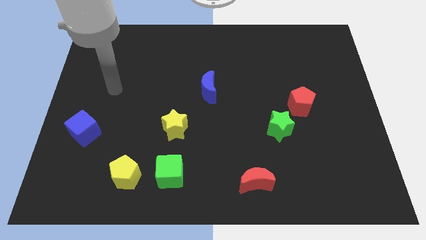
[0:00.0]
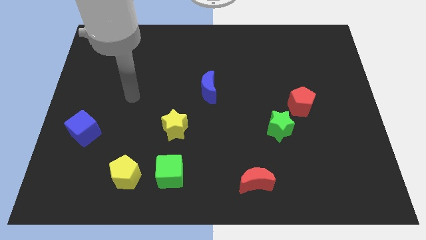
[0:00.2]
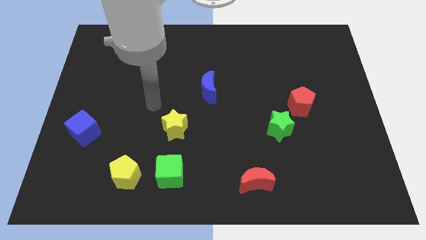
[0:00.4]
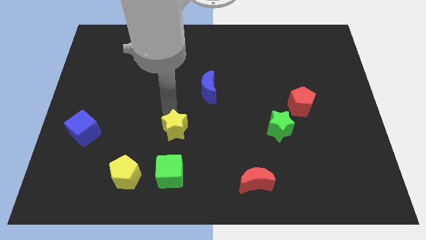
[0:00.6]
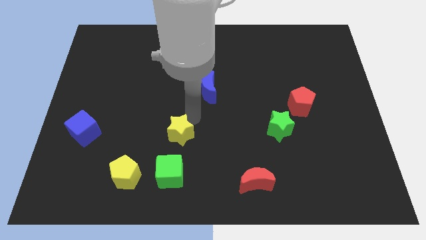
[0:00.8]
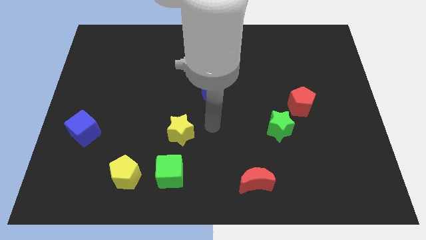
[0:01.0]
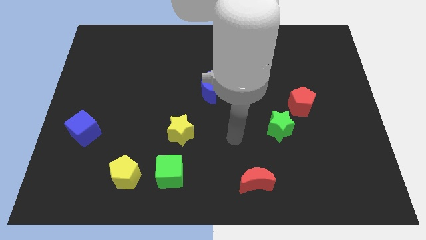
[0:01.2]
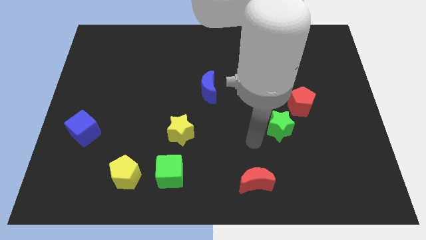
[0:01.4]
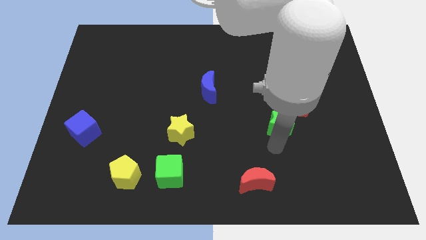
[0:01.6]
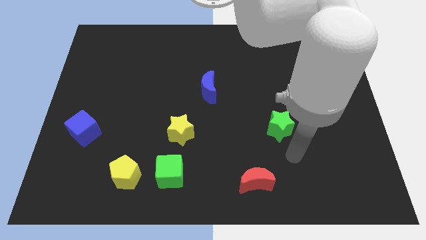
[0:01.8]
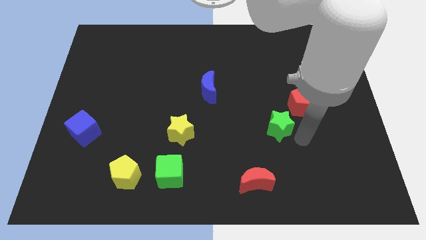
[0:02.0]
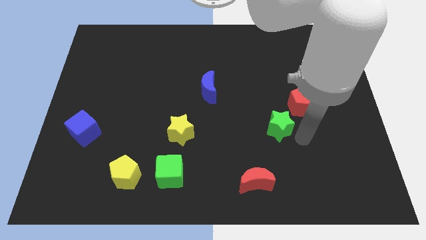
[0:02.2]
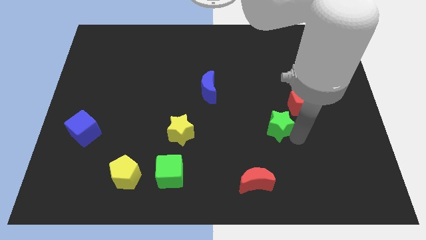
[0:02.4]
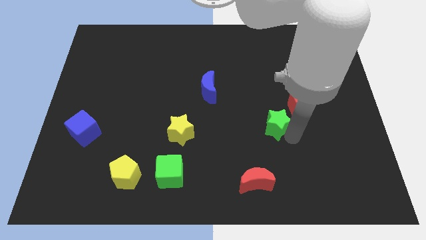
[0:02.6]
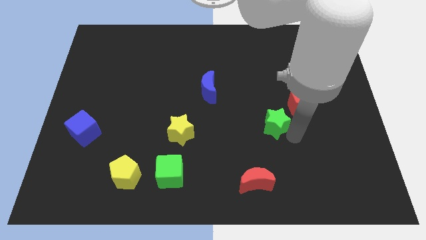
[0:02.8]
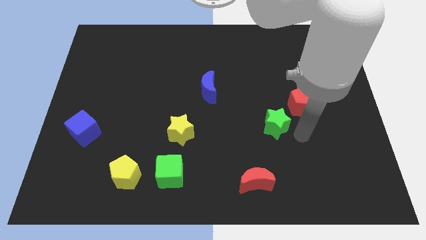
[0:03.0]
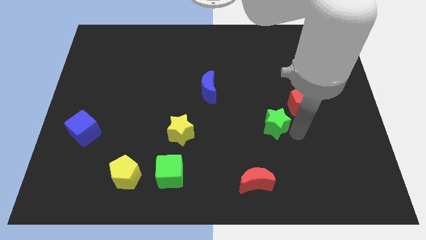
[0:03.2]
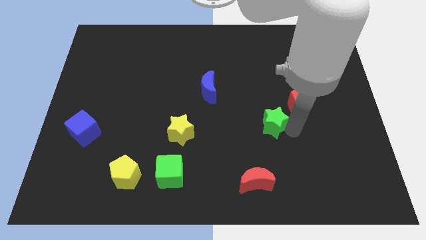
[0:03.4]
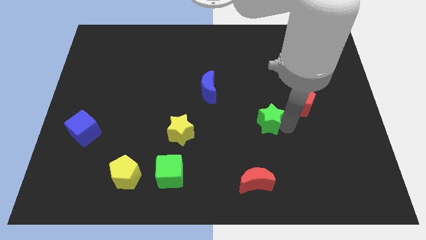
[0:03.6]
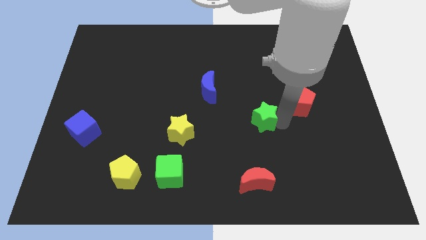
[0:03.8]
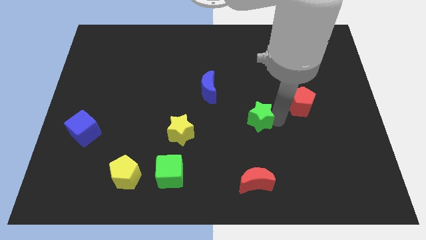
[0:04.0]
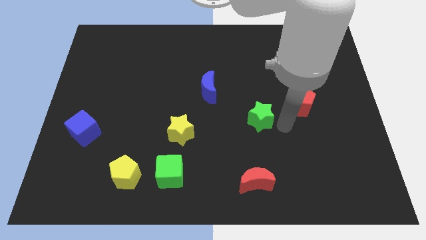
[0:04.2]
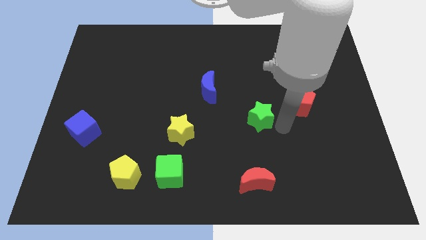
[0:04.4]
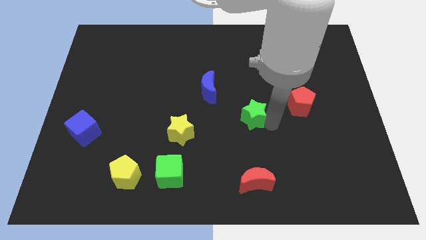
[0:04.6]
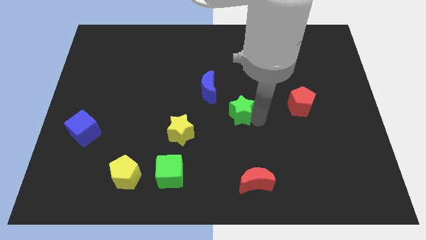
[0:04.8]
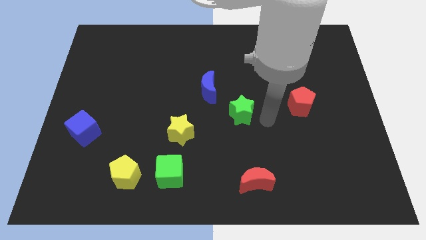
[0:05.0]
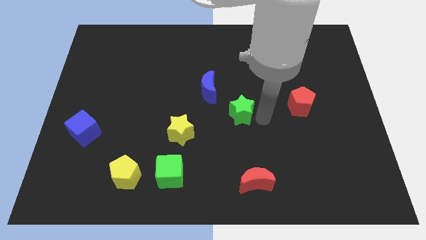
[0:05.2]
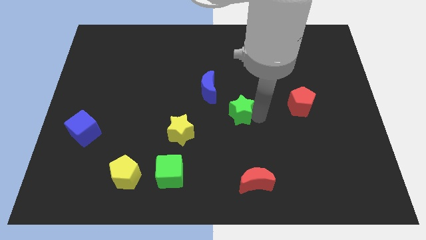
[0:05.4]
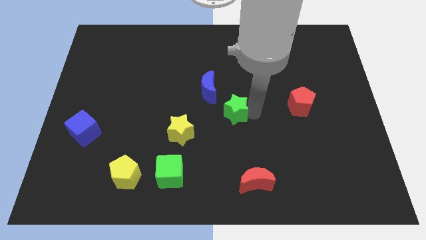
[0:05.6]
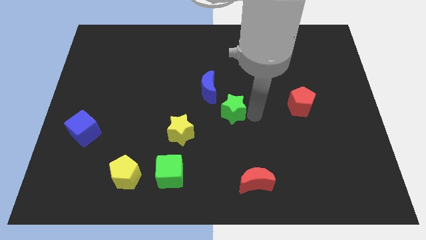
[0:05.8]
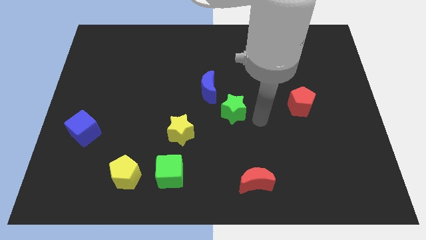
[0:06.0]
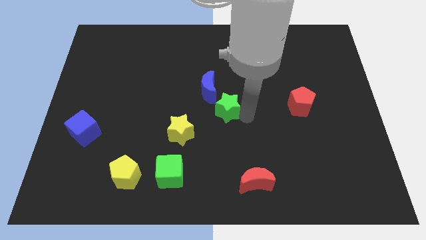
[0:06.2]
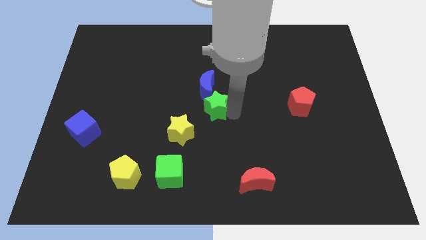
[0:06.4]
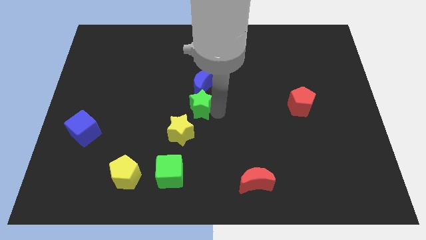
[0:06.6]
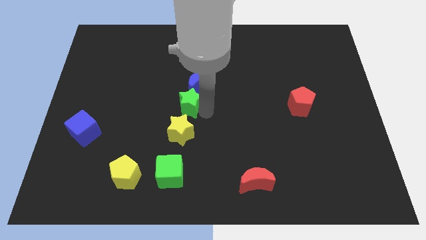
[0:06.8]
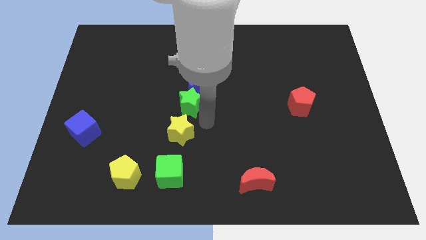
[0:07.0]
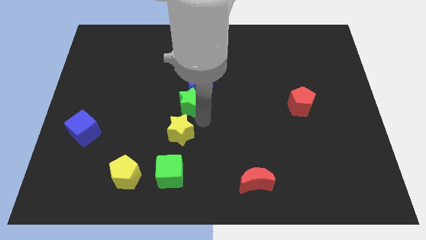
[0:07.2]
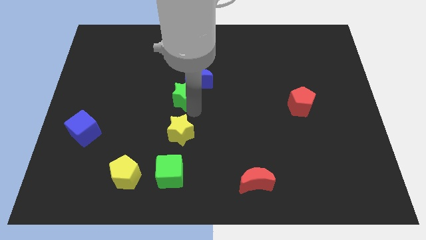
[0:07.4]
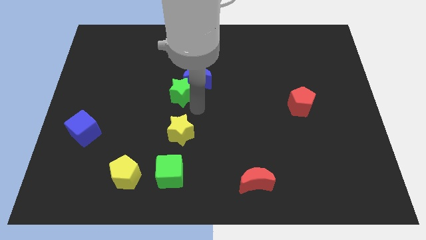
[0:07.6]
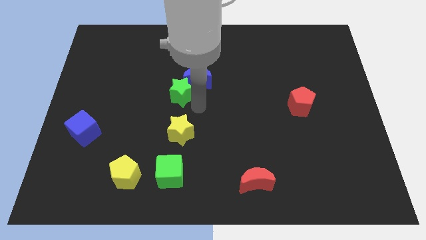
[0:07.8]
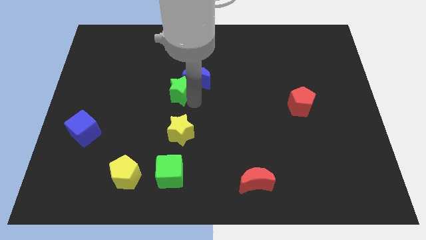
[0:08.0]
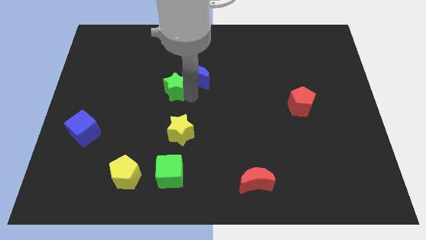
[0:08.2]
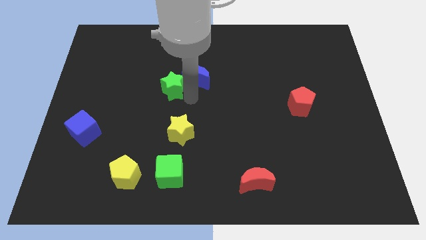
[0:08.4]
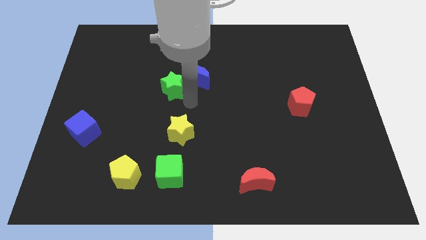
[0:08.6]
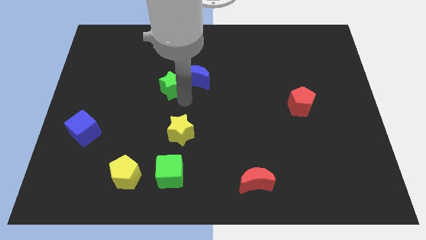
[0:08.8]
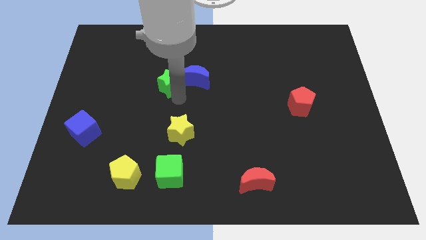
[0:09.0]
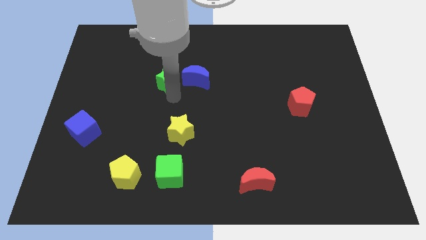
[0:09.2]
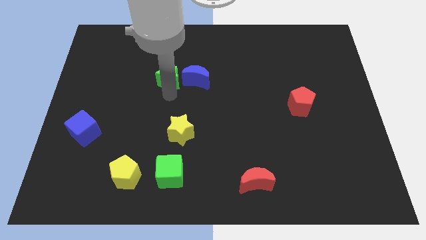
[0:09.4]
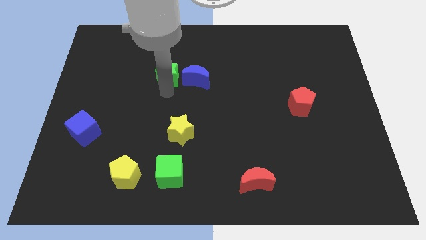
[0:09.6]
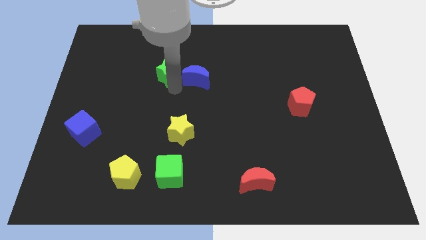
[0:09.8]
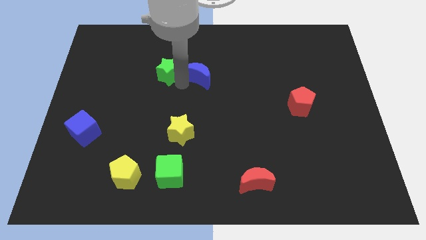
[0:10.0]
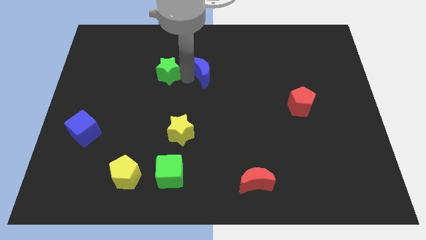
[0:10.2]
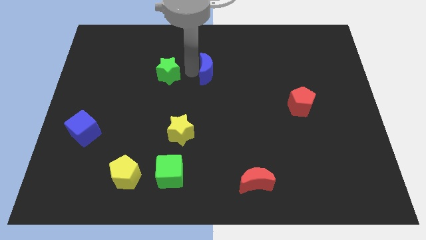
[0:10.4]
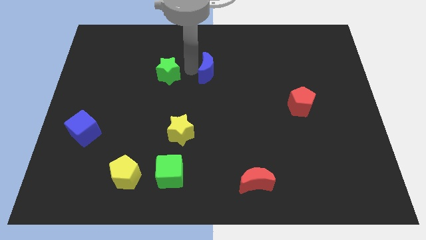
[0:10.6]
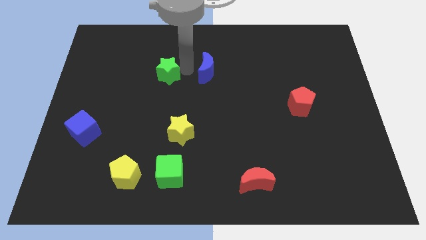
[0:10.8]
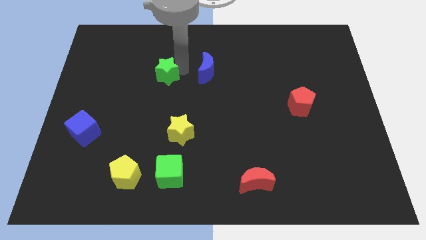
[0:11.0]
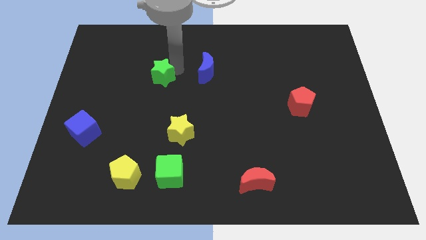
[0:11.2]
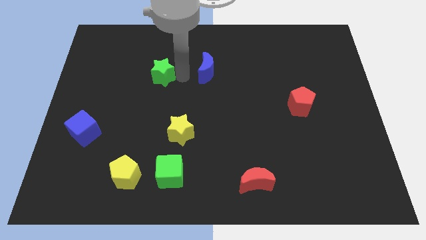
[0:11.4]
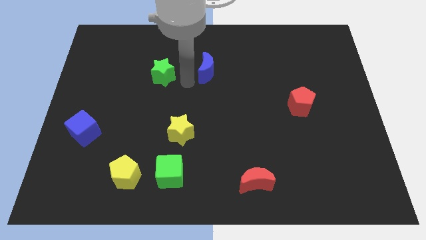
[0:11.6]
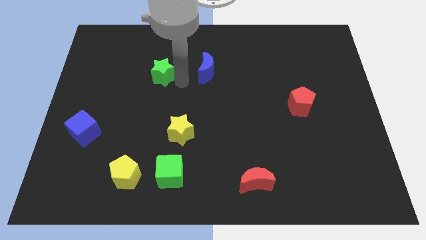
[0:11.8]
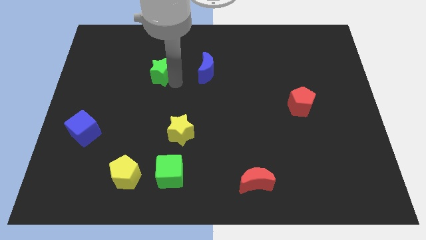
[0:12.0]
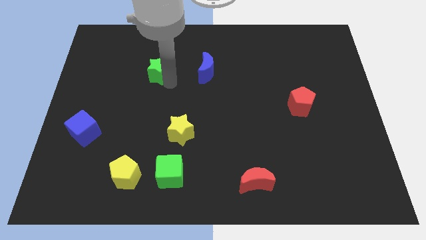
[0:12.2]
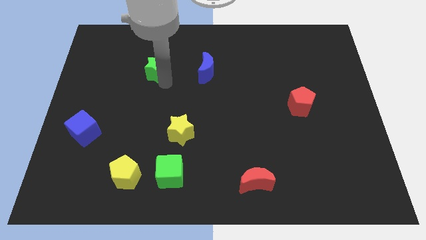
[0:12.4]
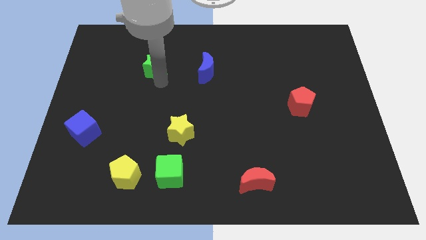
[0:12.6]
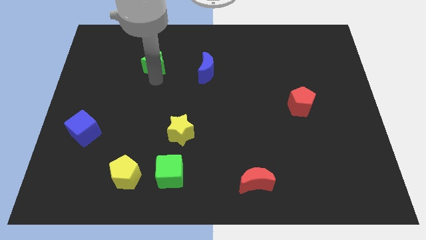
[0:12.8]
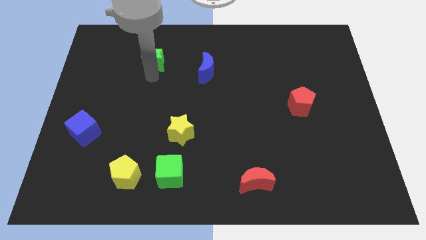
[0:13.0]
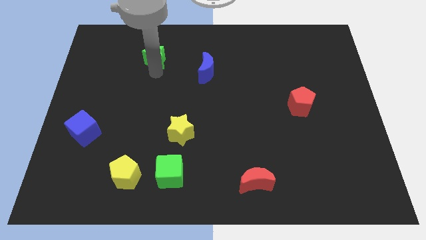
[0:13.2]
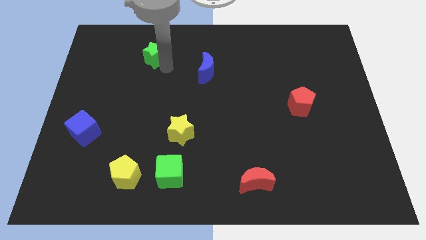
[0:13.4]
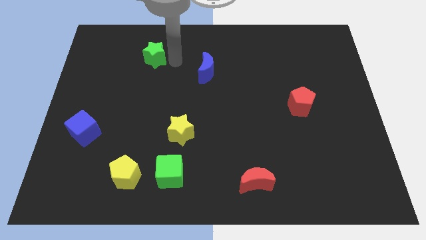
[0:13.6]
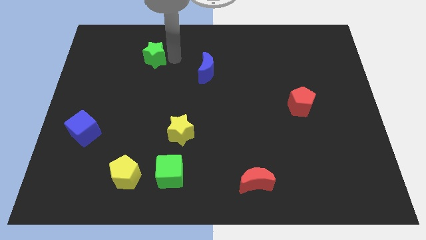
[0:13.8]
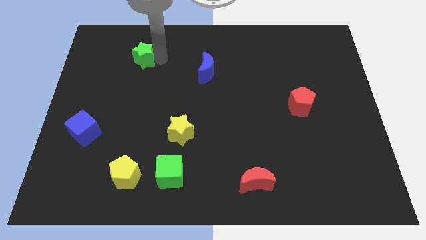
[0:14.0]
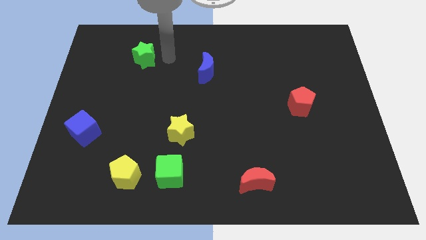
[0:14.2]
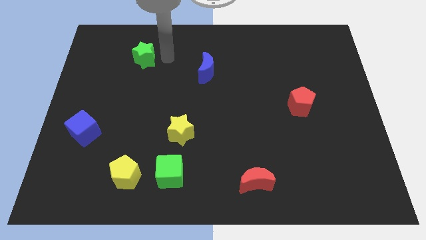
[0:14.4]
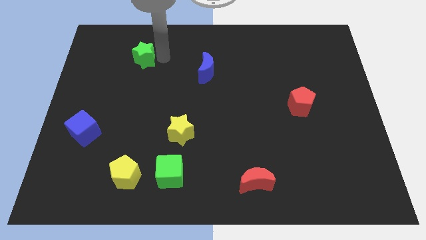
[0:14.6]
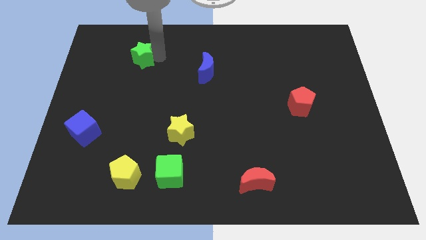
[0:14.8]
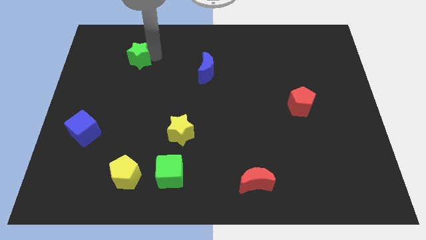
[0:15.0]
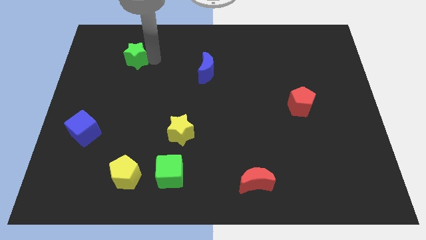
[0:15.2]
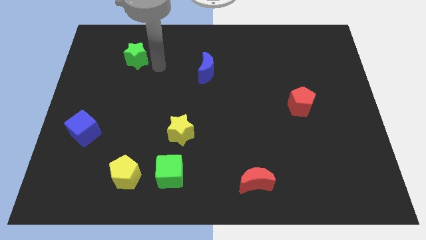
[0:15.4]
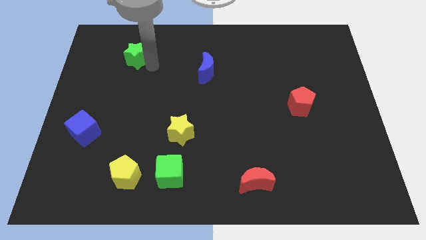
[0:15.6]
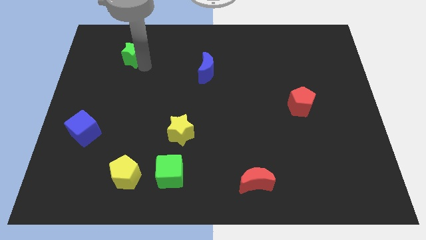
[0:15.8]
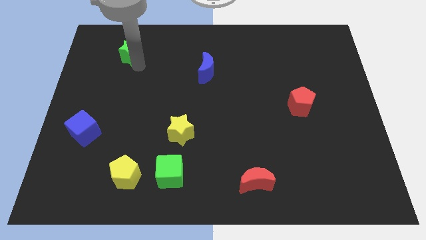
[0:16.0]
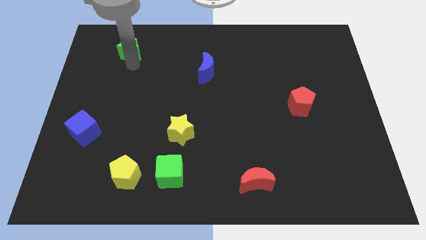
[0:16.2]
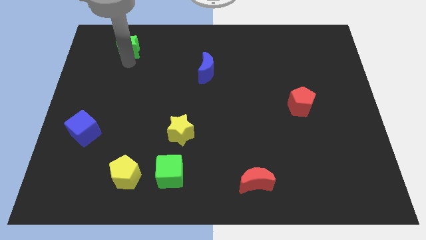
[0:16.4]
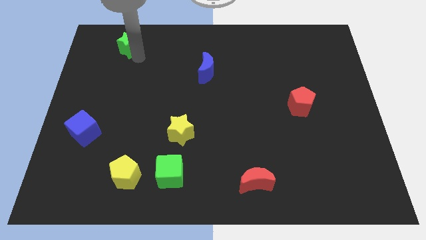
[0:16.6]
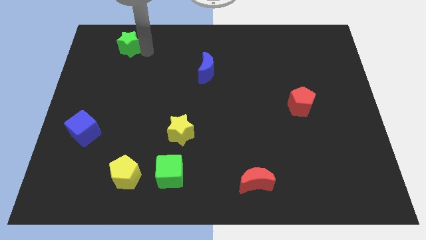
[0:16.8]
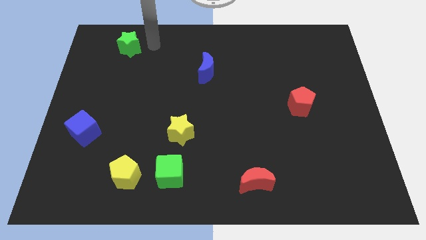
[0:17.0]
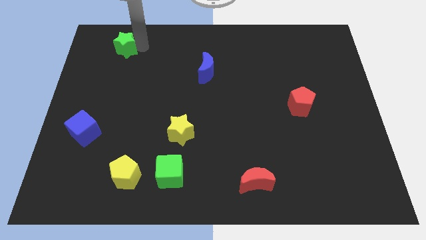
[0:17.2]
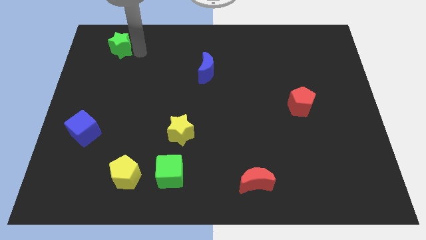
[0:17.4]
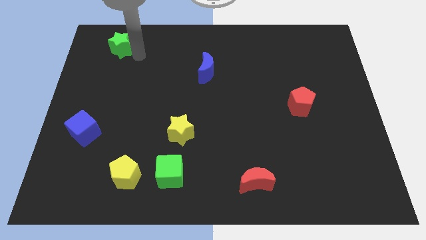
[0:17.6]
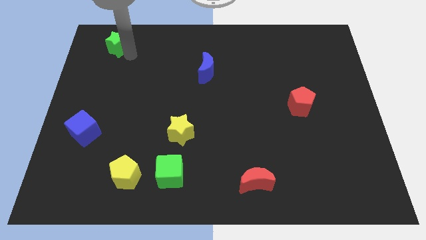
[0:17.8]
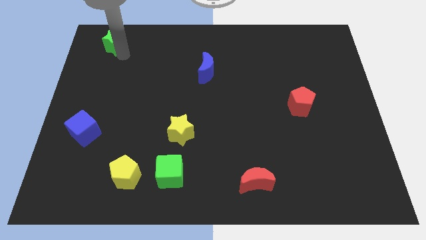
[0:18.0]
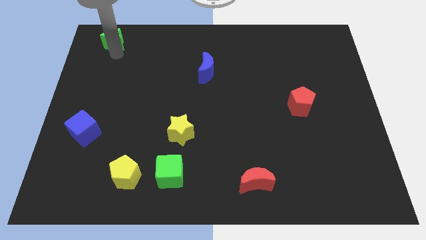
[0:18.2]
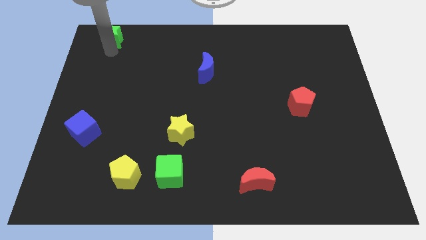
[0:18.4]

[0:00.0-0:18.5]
put the green star to the upper left corner
